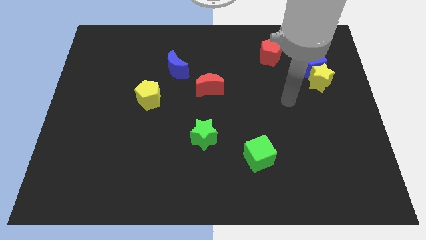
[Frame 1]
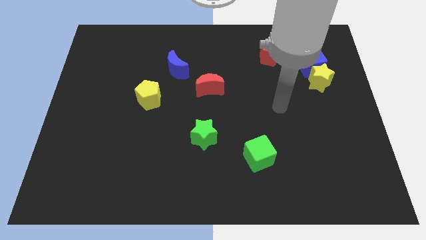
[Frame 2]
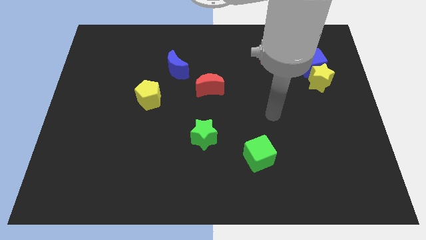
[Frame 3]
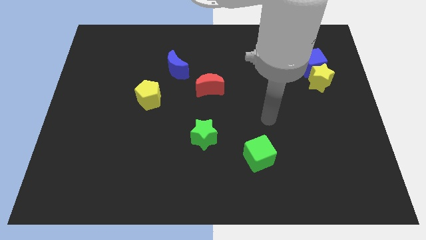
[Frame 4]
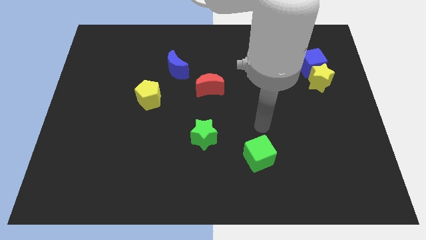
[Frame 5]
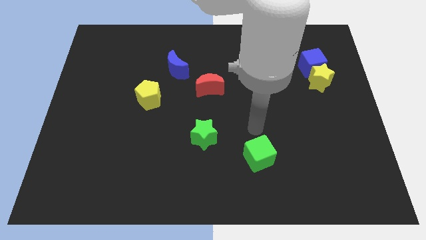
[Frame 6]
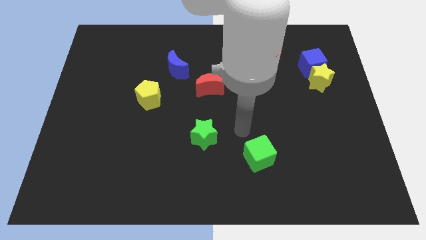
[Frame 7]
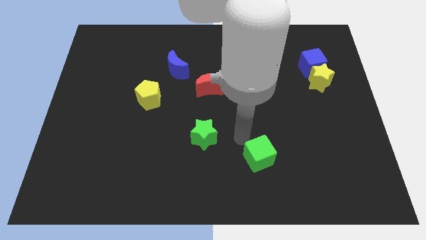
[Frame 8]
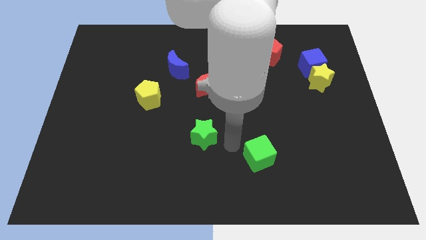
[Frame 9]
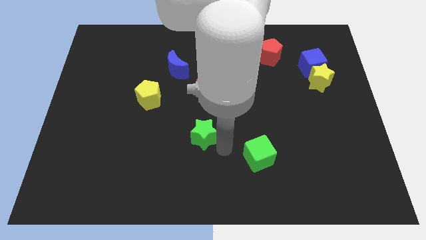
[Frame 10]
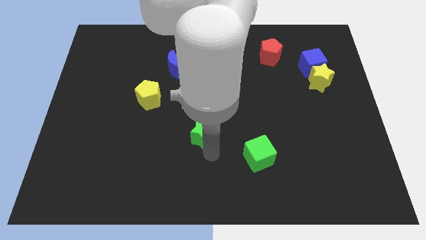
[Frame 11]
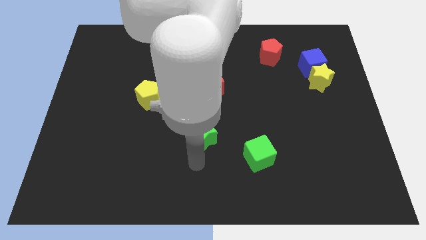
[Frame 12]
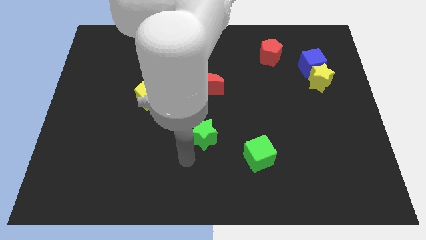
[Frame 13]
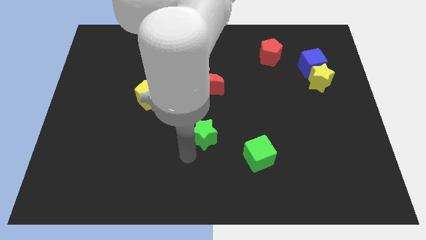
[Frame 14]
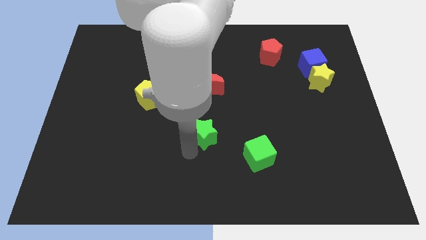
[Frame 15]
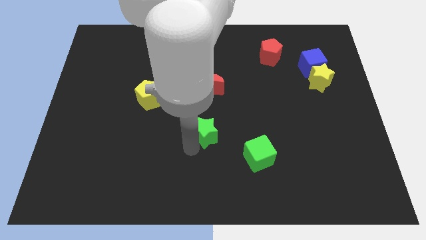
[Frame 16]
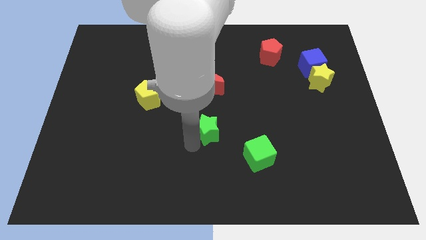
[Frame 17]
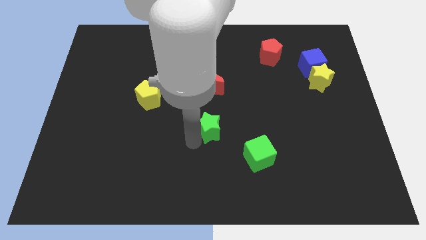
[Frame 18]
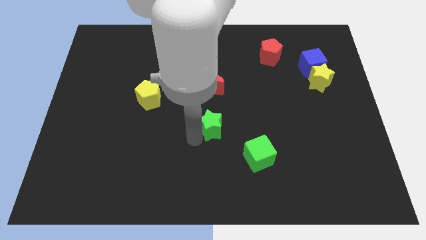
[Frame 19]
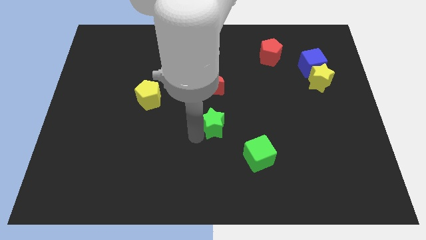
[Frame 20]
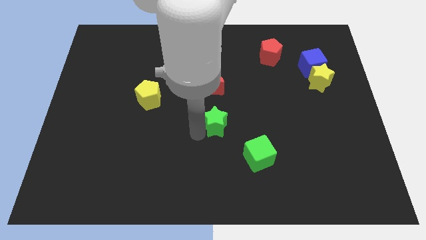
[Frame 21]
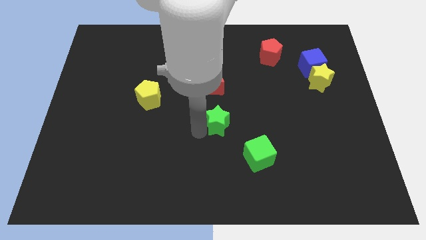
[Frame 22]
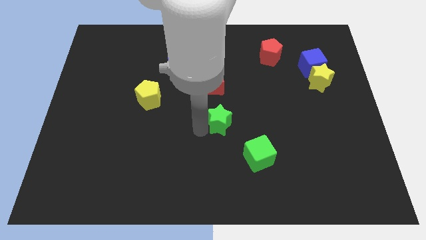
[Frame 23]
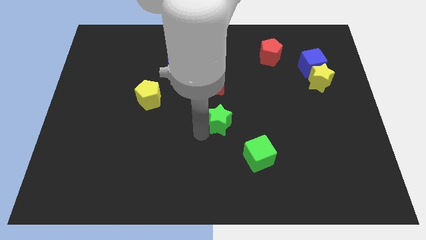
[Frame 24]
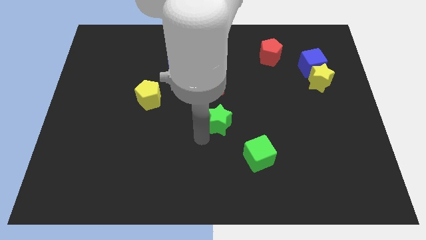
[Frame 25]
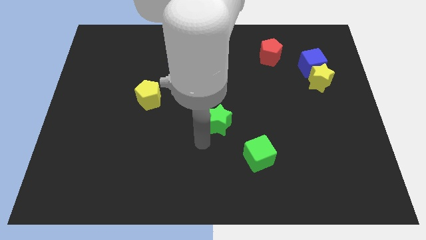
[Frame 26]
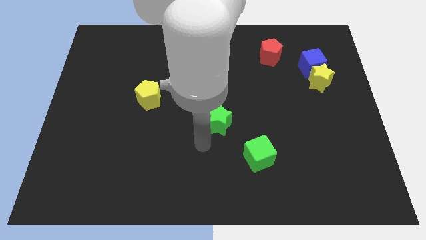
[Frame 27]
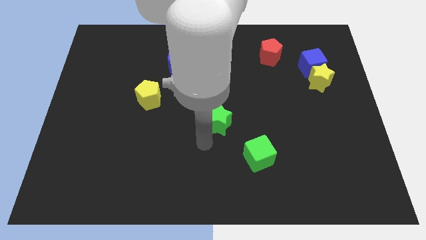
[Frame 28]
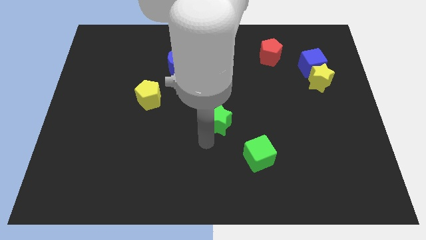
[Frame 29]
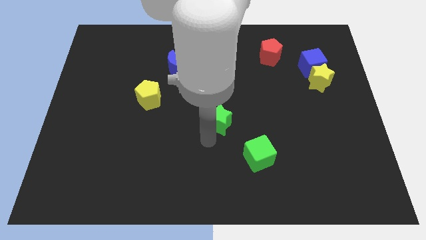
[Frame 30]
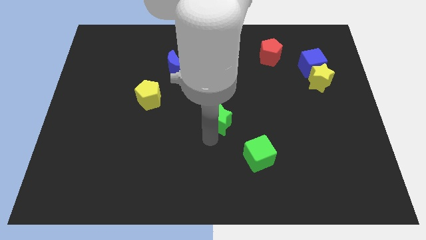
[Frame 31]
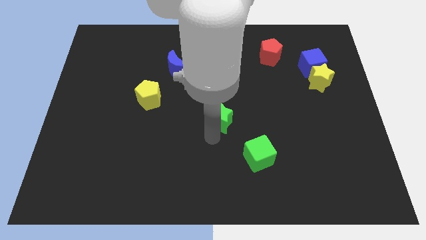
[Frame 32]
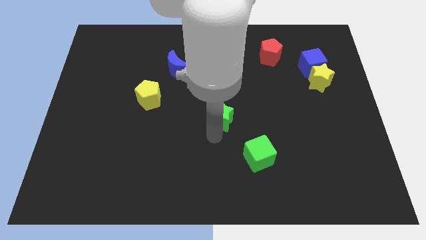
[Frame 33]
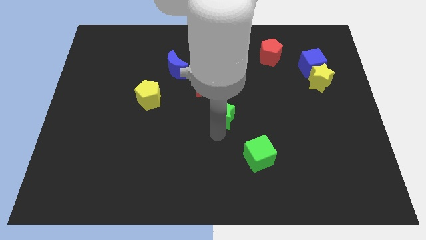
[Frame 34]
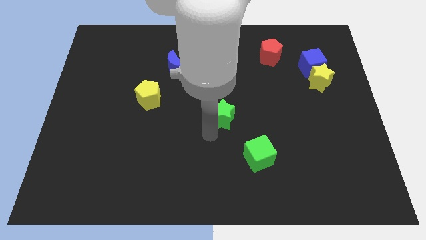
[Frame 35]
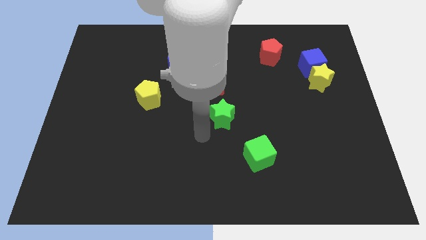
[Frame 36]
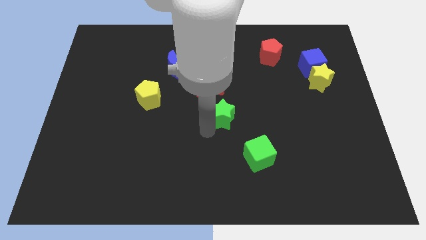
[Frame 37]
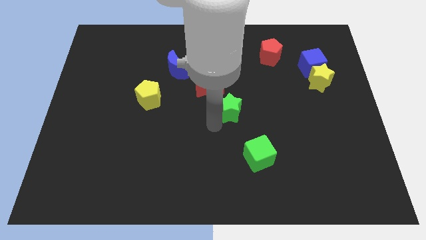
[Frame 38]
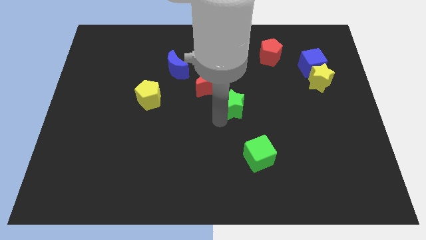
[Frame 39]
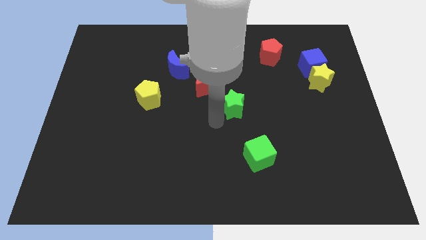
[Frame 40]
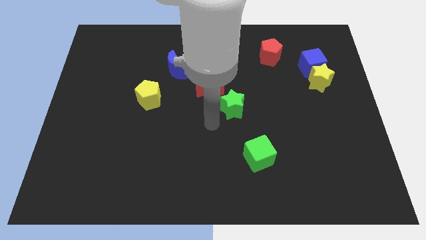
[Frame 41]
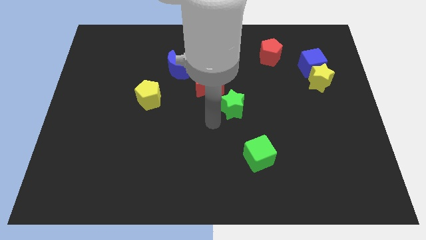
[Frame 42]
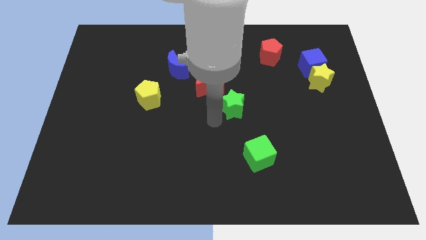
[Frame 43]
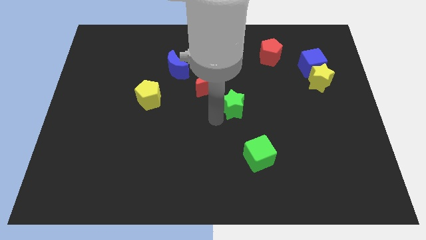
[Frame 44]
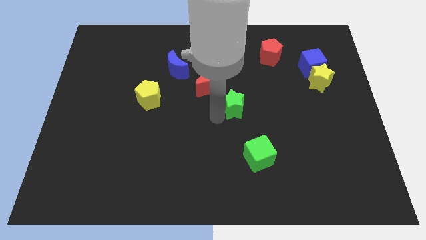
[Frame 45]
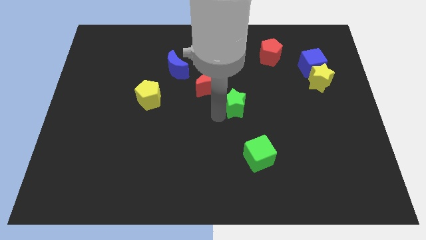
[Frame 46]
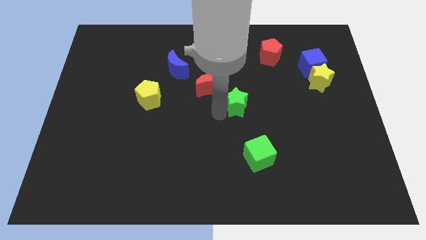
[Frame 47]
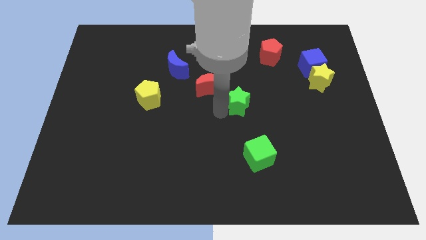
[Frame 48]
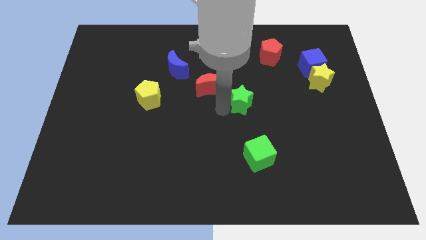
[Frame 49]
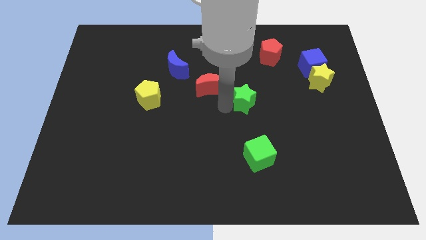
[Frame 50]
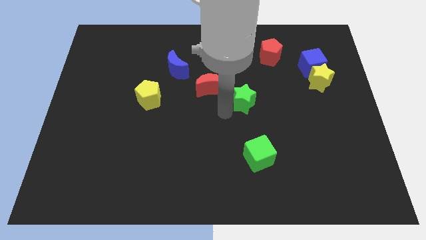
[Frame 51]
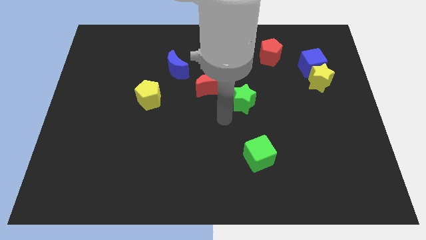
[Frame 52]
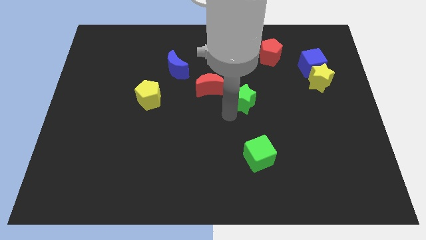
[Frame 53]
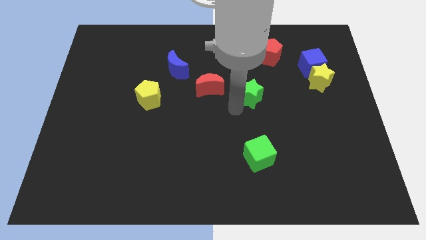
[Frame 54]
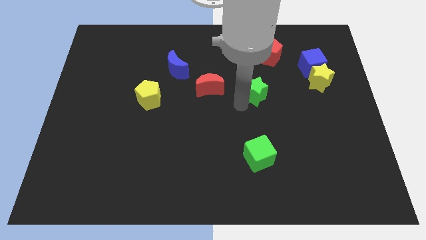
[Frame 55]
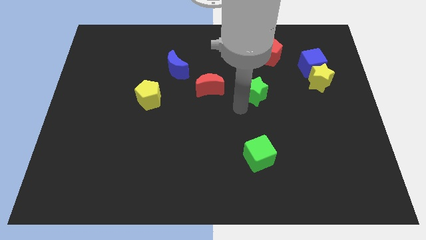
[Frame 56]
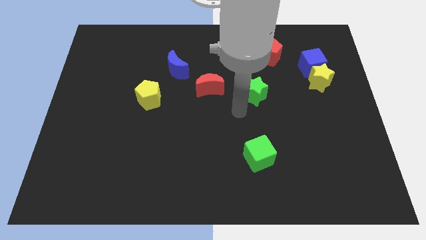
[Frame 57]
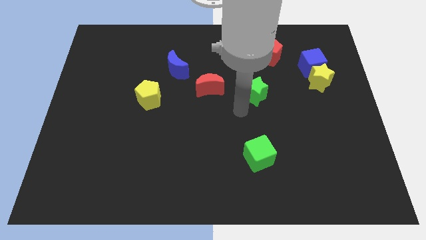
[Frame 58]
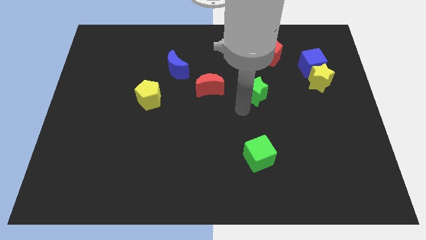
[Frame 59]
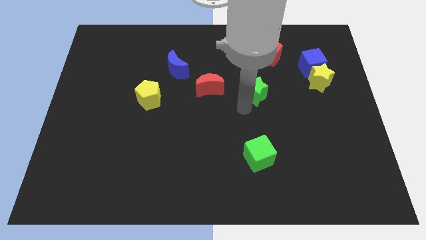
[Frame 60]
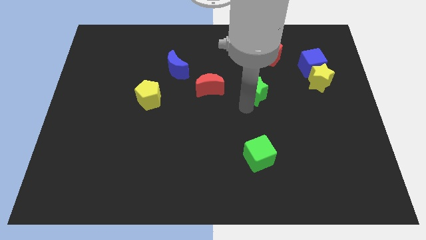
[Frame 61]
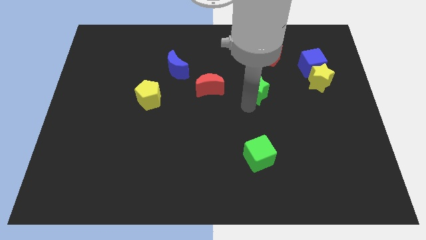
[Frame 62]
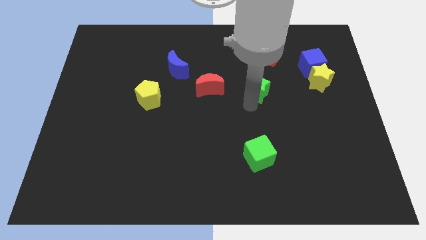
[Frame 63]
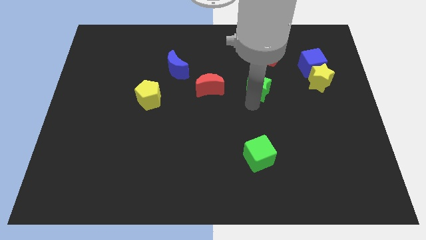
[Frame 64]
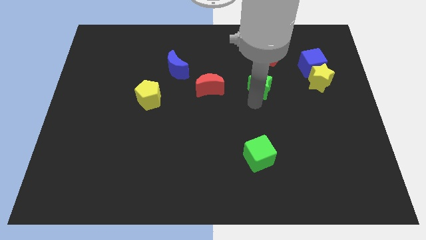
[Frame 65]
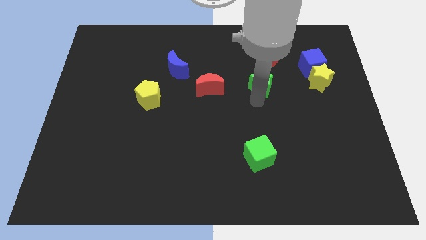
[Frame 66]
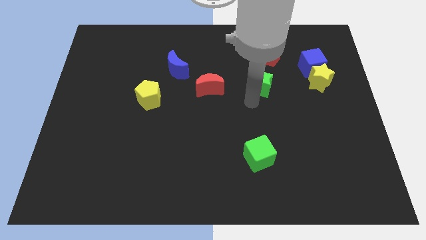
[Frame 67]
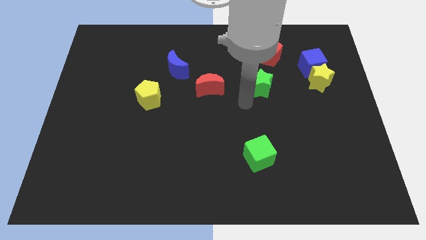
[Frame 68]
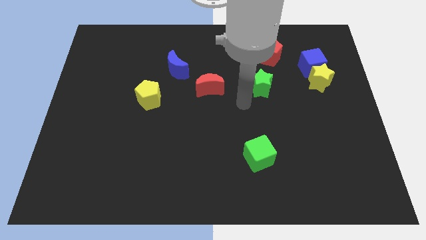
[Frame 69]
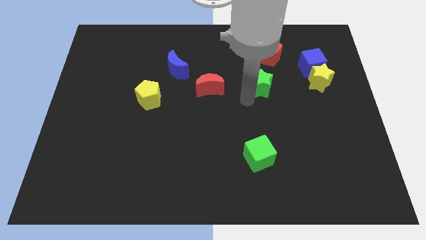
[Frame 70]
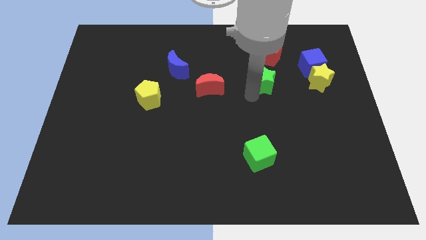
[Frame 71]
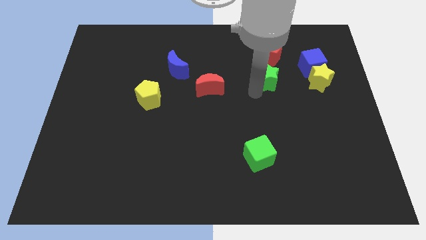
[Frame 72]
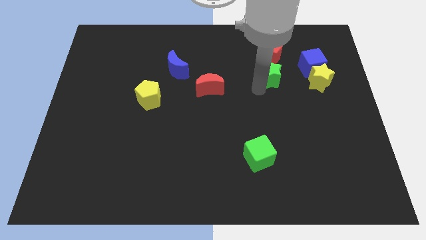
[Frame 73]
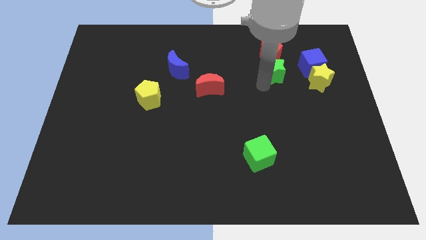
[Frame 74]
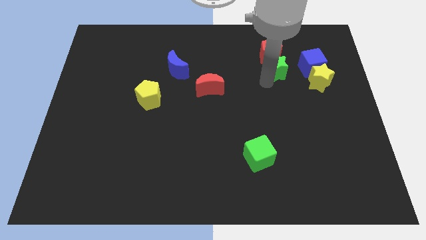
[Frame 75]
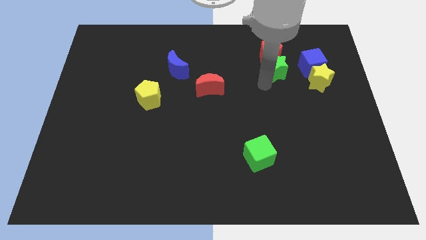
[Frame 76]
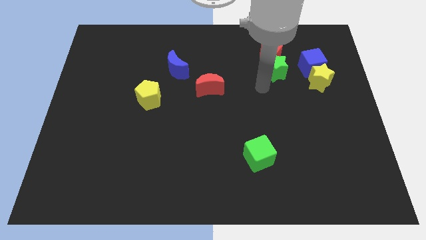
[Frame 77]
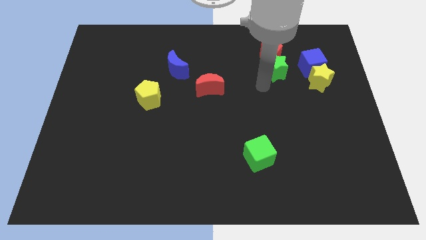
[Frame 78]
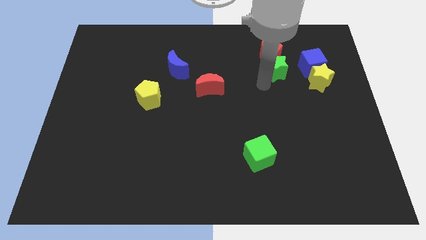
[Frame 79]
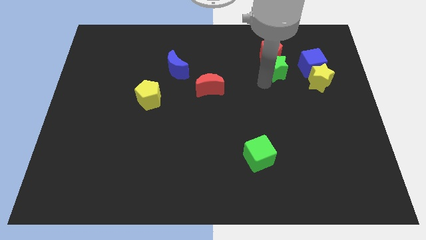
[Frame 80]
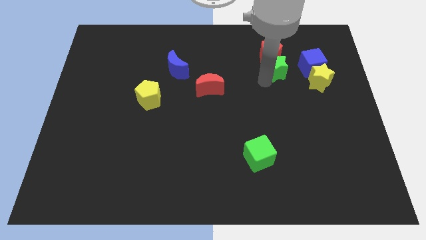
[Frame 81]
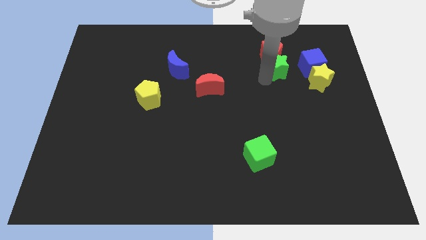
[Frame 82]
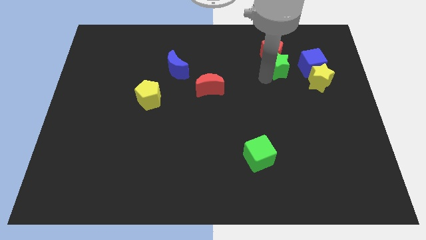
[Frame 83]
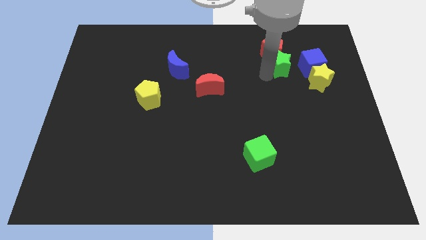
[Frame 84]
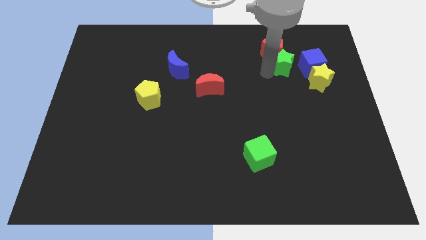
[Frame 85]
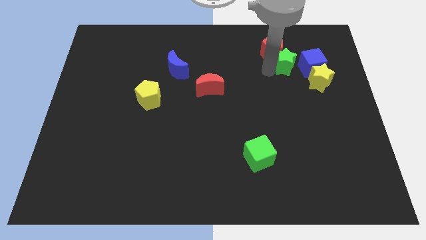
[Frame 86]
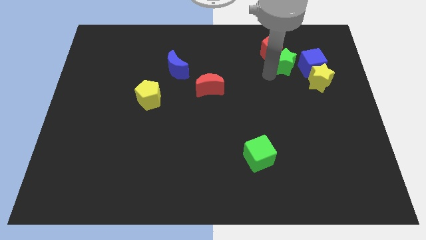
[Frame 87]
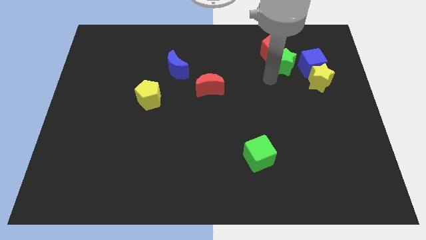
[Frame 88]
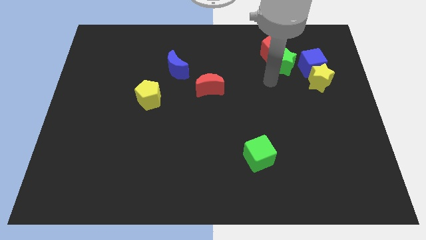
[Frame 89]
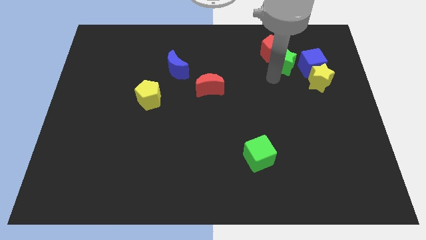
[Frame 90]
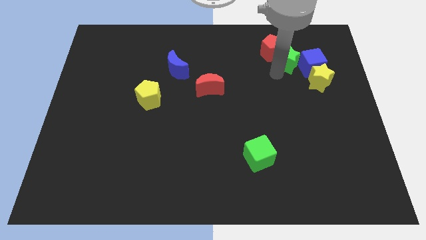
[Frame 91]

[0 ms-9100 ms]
move the green star to the right of the red pentagon
